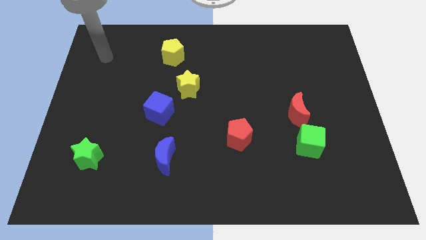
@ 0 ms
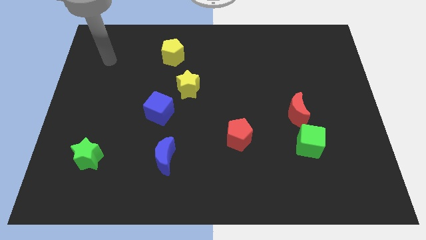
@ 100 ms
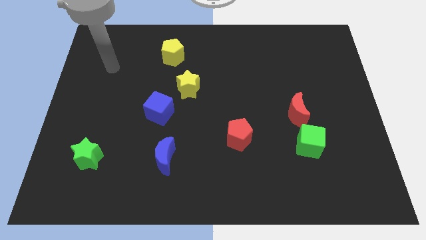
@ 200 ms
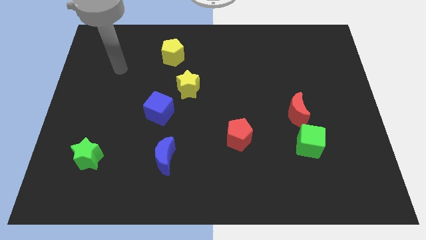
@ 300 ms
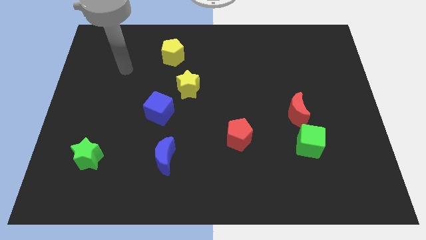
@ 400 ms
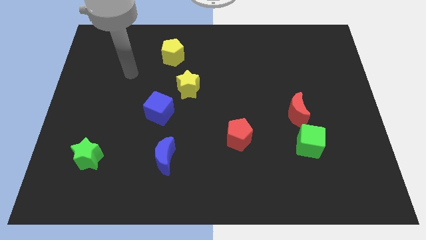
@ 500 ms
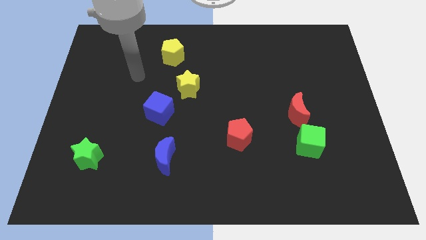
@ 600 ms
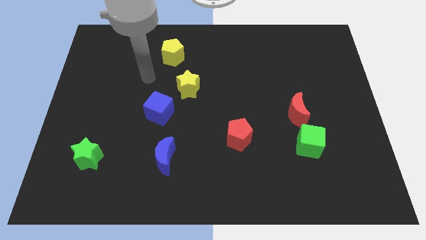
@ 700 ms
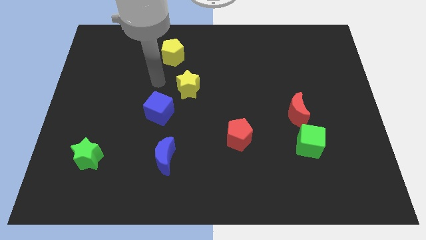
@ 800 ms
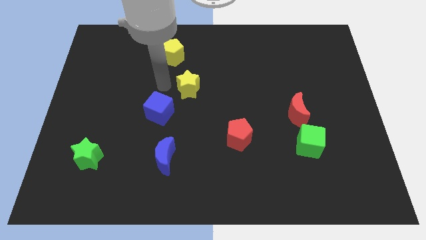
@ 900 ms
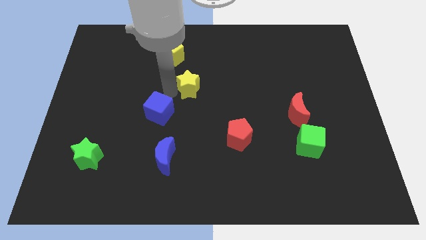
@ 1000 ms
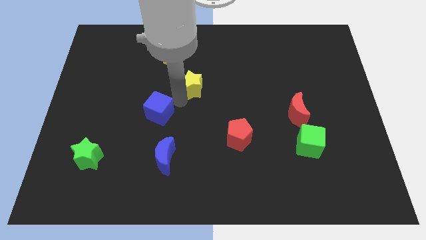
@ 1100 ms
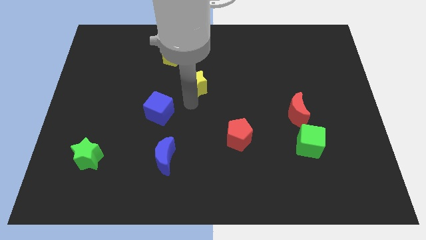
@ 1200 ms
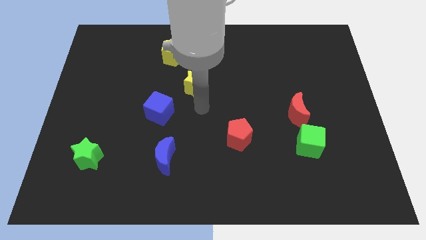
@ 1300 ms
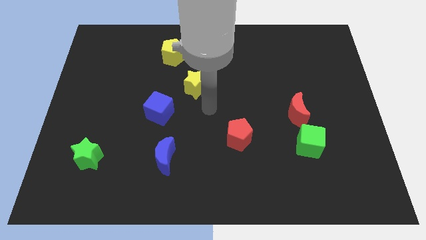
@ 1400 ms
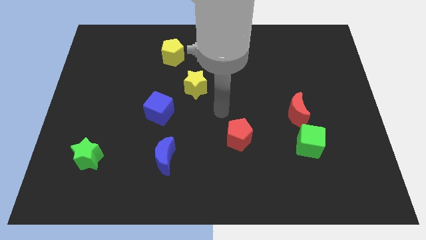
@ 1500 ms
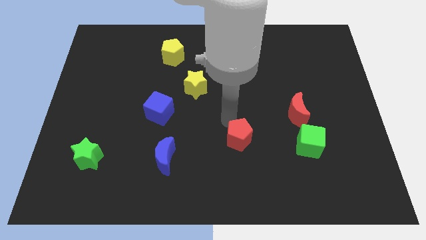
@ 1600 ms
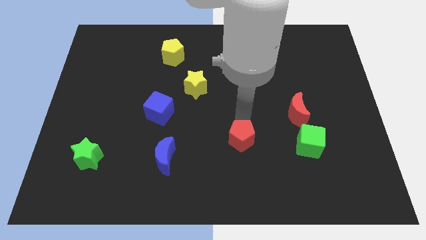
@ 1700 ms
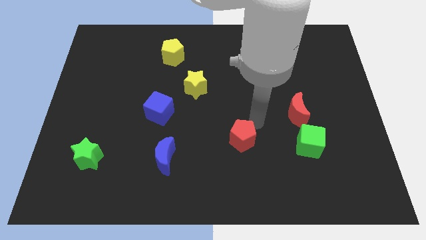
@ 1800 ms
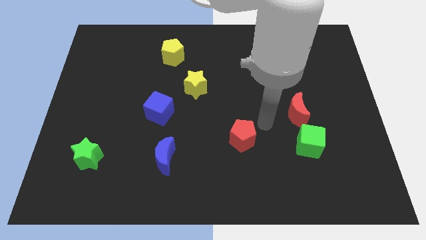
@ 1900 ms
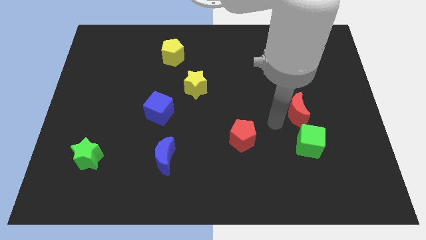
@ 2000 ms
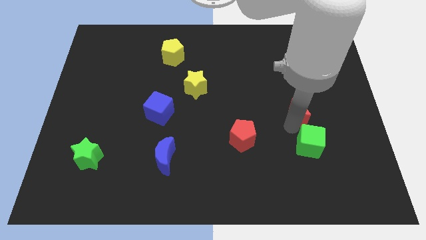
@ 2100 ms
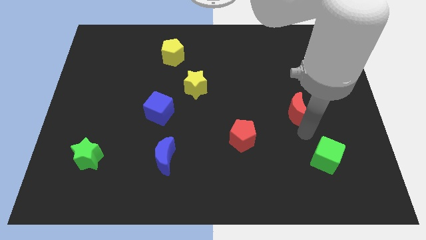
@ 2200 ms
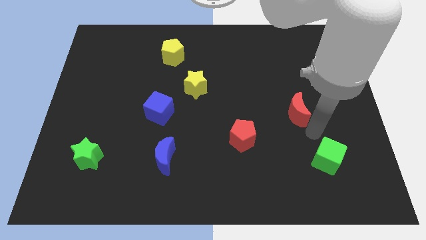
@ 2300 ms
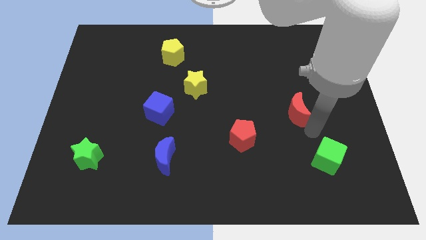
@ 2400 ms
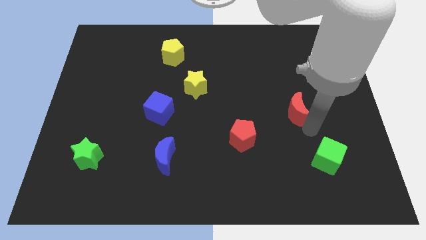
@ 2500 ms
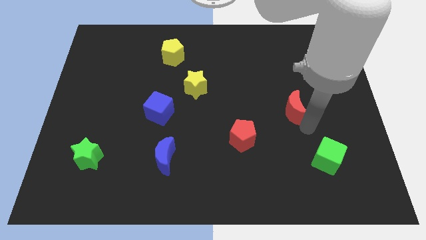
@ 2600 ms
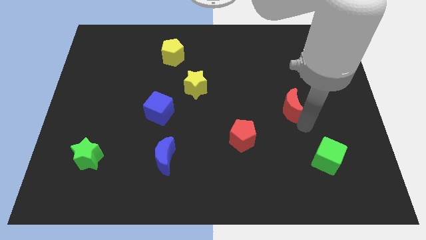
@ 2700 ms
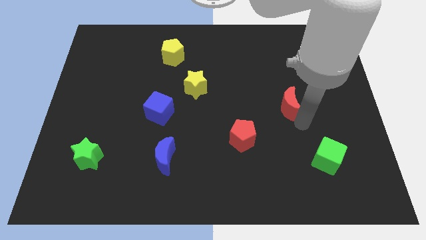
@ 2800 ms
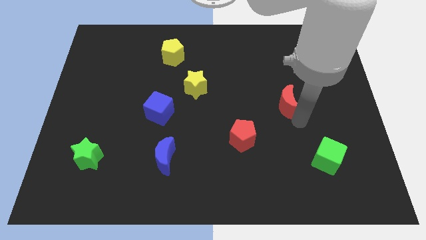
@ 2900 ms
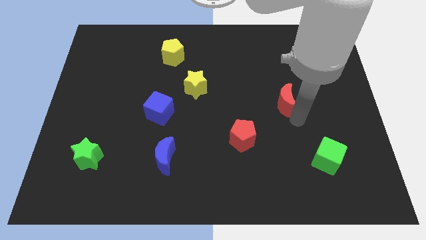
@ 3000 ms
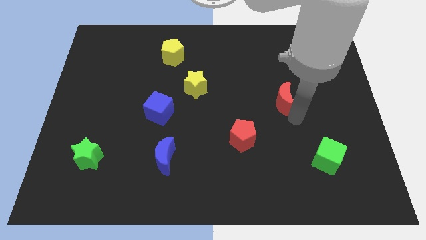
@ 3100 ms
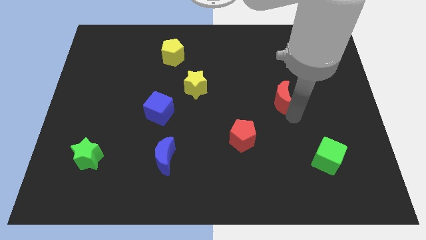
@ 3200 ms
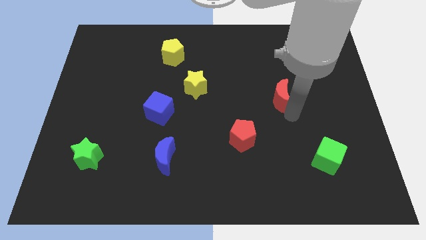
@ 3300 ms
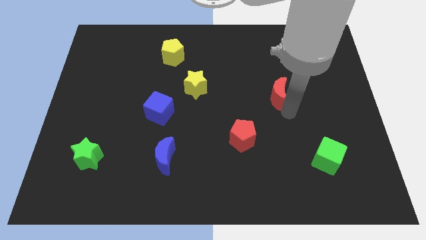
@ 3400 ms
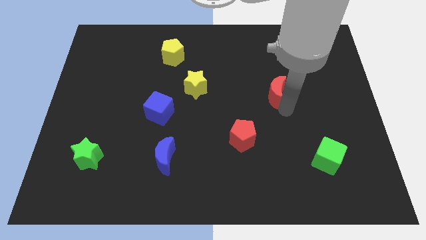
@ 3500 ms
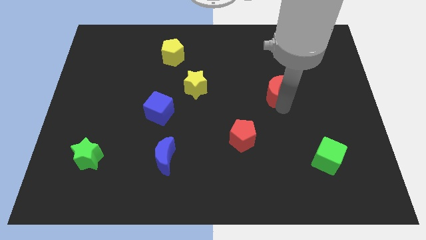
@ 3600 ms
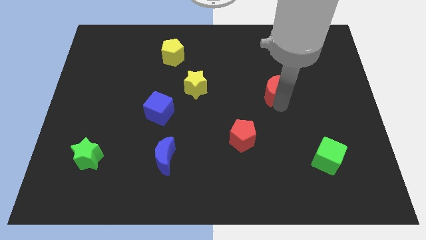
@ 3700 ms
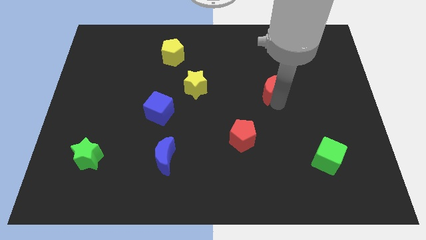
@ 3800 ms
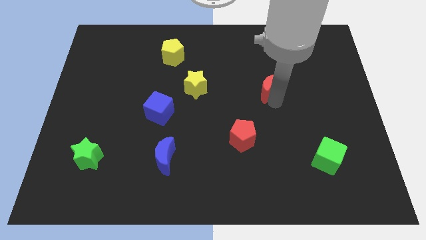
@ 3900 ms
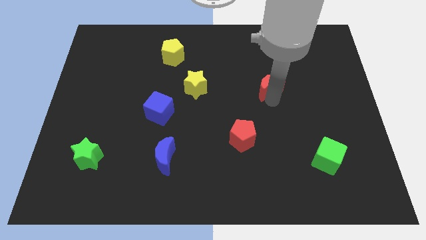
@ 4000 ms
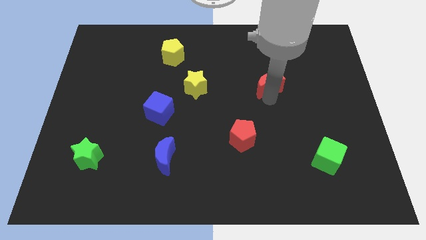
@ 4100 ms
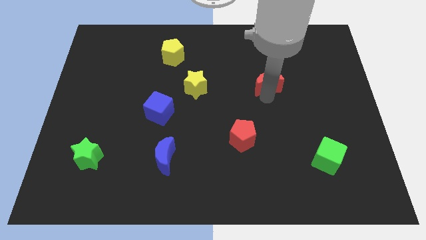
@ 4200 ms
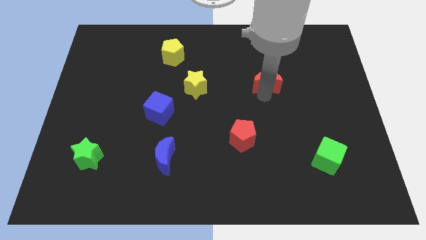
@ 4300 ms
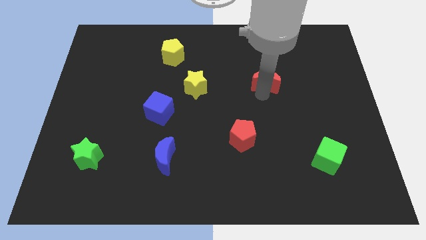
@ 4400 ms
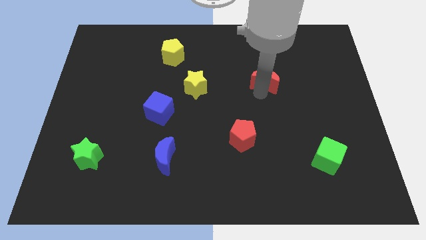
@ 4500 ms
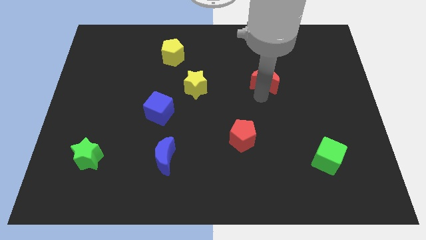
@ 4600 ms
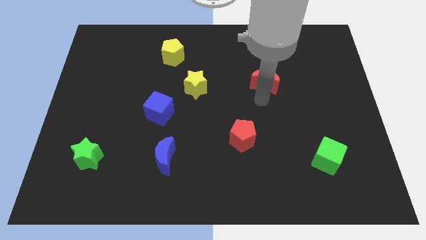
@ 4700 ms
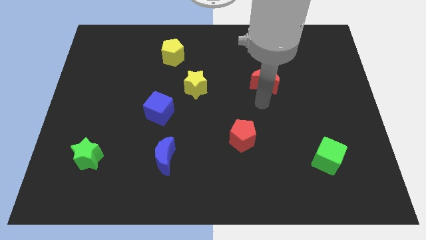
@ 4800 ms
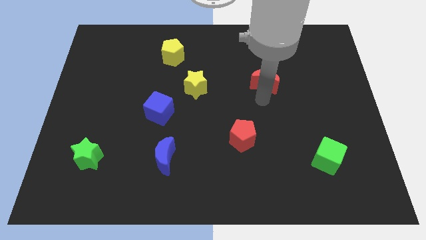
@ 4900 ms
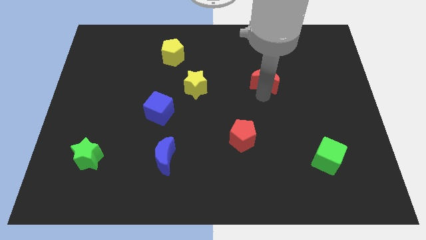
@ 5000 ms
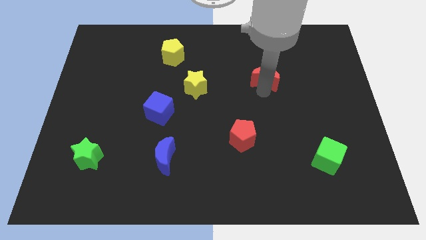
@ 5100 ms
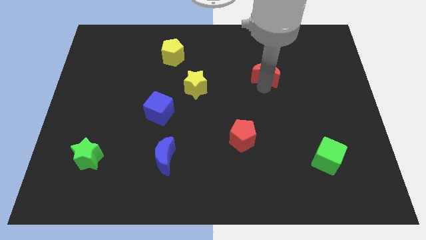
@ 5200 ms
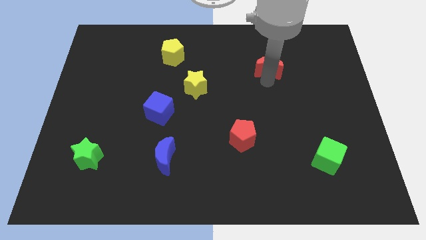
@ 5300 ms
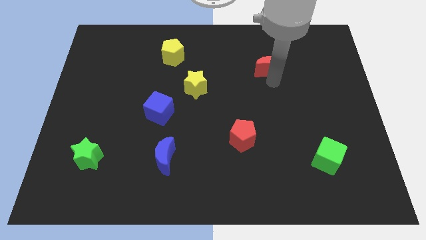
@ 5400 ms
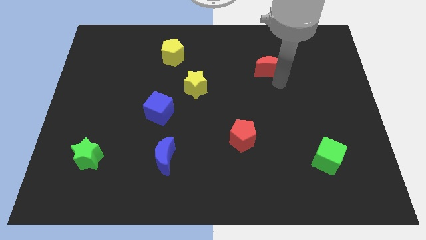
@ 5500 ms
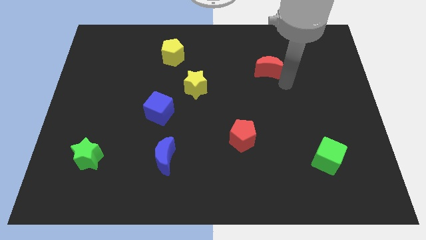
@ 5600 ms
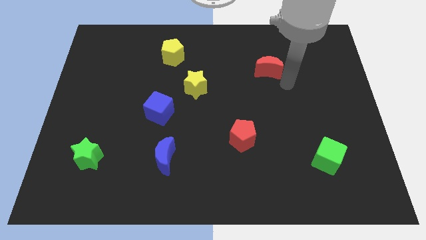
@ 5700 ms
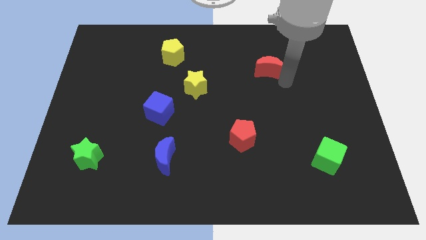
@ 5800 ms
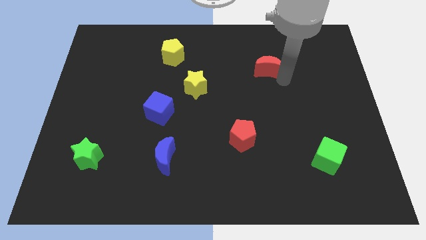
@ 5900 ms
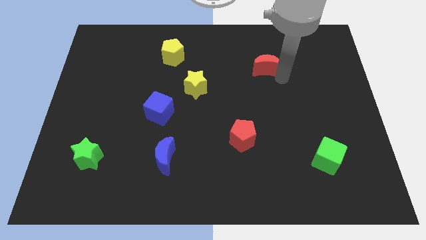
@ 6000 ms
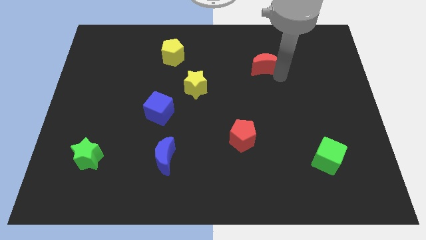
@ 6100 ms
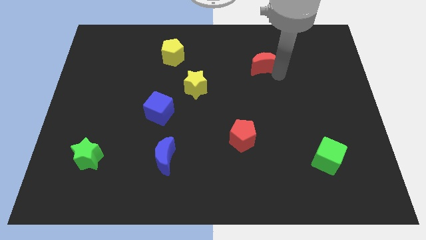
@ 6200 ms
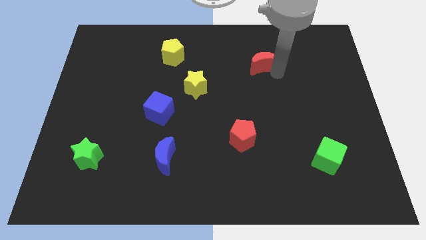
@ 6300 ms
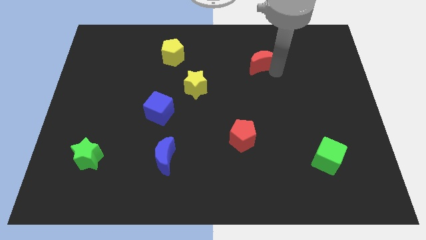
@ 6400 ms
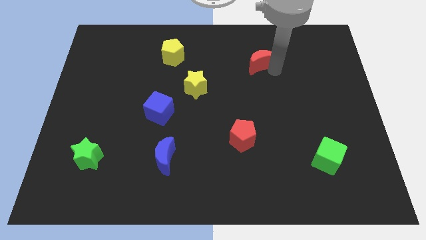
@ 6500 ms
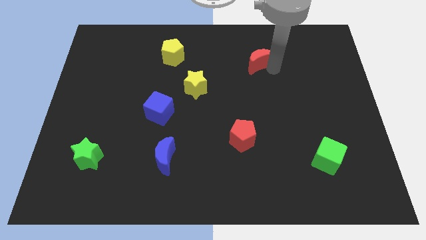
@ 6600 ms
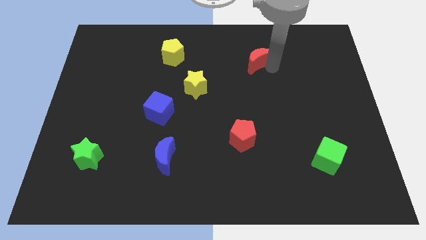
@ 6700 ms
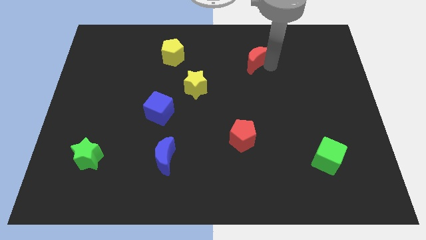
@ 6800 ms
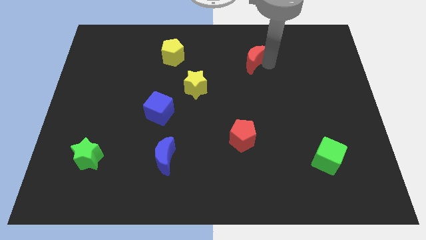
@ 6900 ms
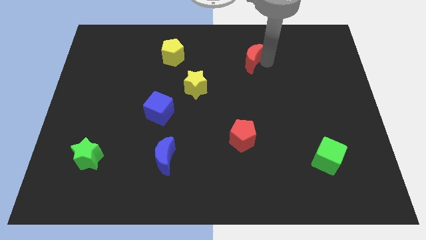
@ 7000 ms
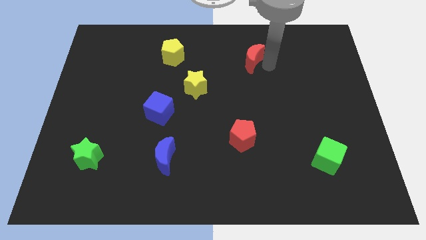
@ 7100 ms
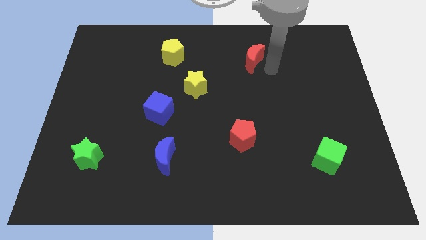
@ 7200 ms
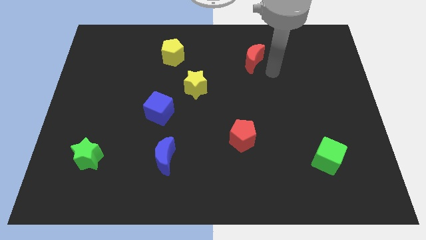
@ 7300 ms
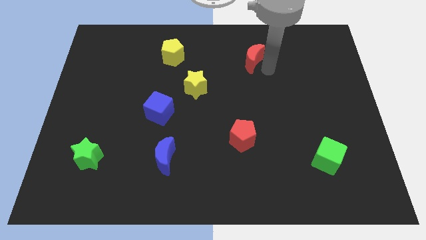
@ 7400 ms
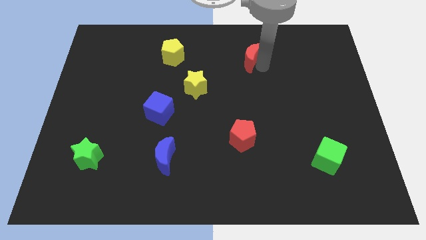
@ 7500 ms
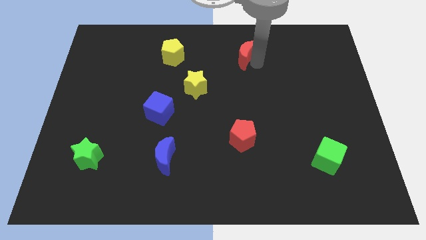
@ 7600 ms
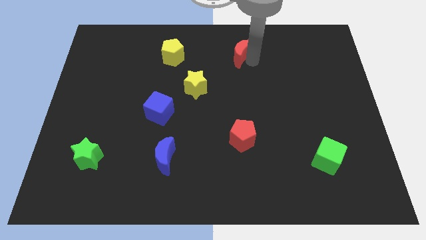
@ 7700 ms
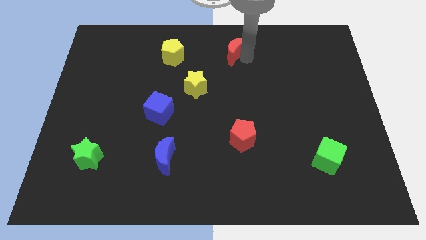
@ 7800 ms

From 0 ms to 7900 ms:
push the red moon to the towards your base

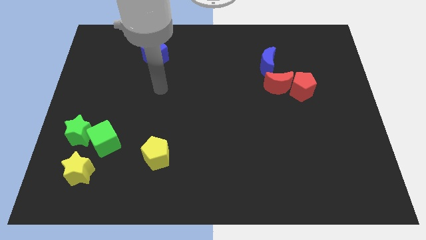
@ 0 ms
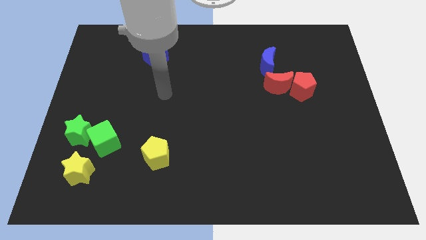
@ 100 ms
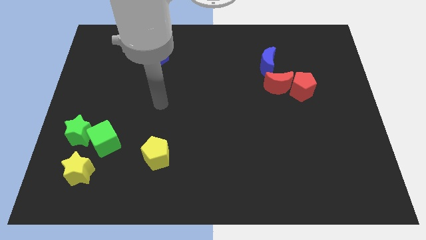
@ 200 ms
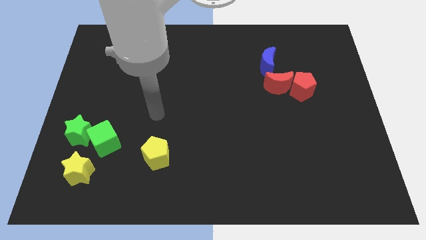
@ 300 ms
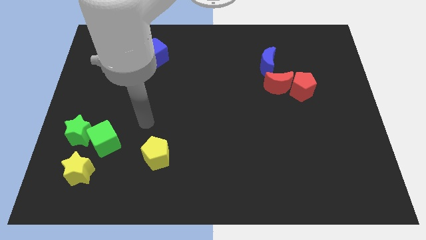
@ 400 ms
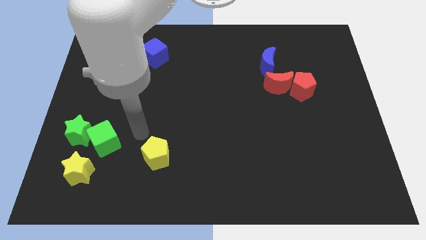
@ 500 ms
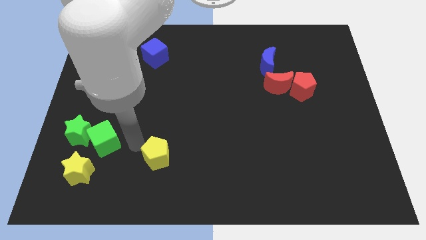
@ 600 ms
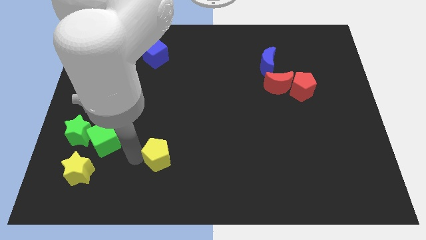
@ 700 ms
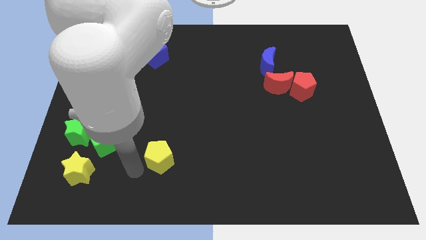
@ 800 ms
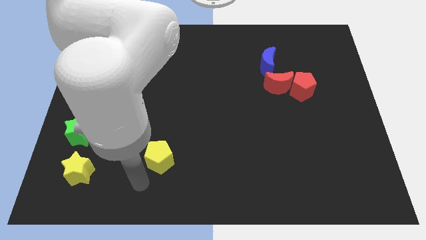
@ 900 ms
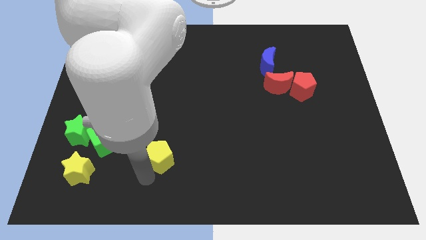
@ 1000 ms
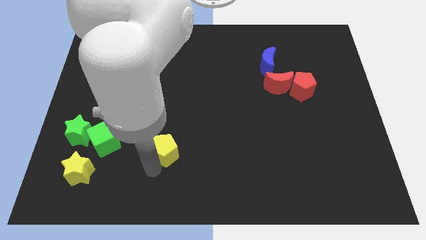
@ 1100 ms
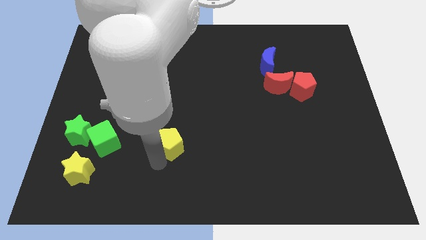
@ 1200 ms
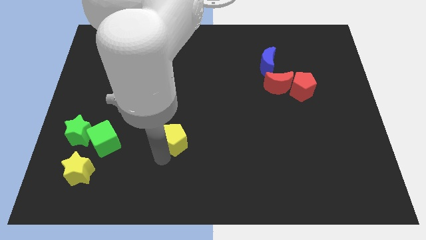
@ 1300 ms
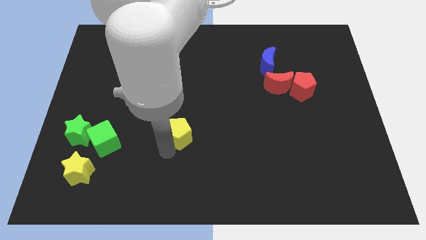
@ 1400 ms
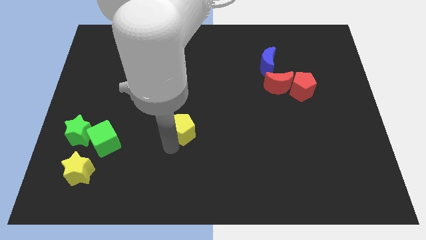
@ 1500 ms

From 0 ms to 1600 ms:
push the yellow pentagon to the middle of the board
